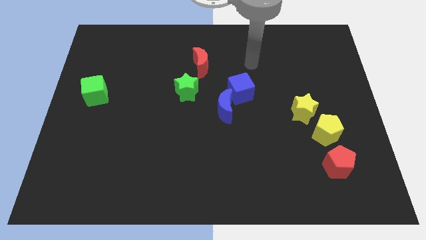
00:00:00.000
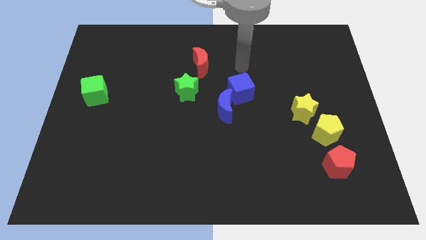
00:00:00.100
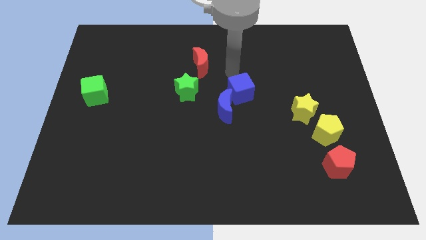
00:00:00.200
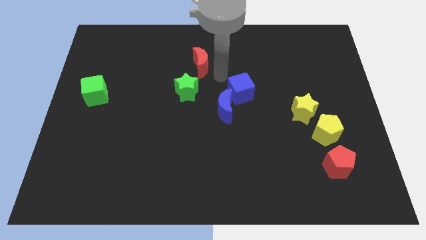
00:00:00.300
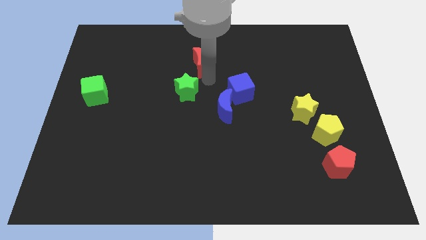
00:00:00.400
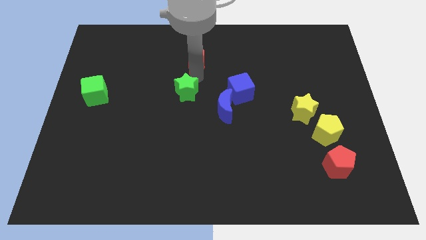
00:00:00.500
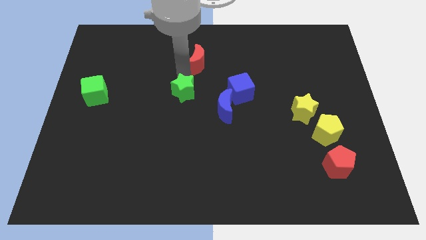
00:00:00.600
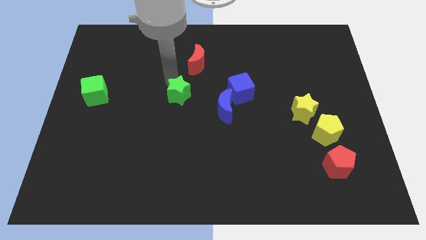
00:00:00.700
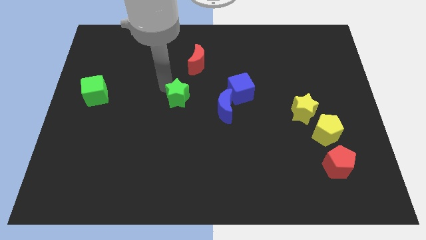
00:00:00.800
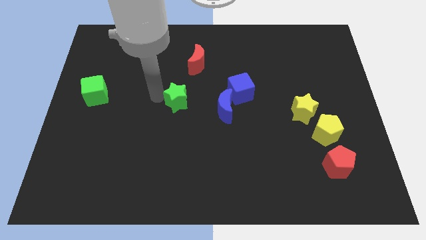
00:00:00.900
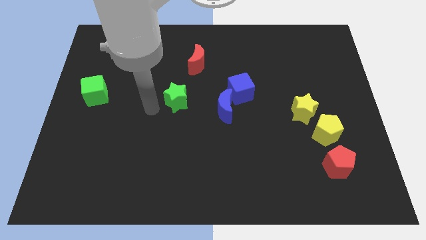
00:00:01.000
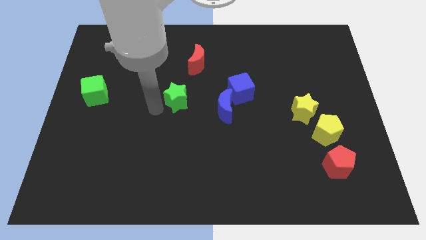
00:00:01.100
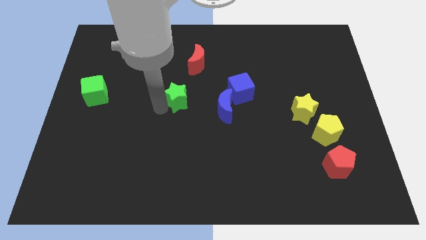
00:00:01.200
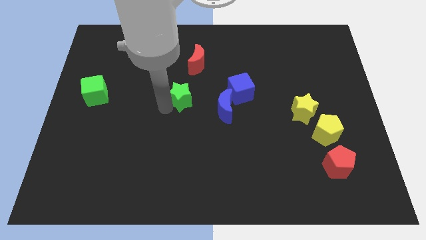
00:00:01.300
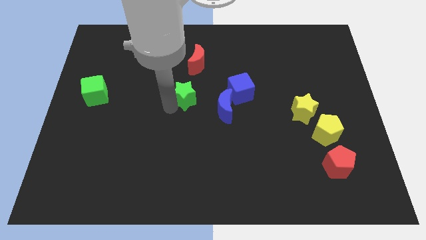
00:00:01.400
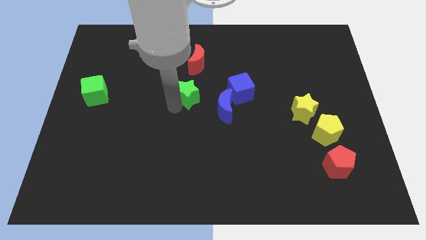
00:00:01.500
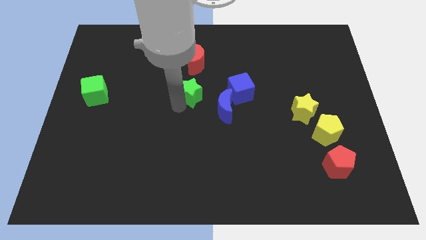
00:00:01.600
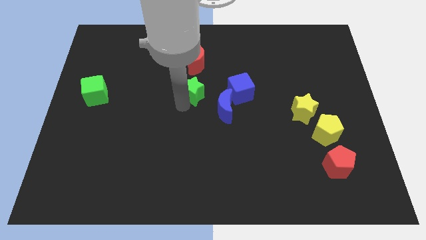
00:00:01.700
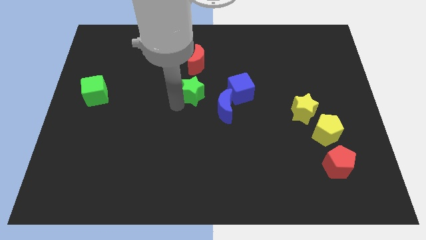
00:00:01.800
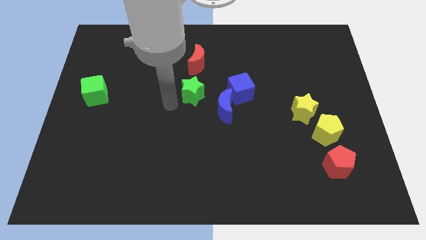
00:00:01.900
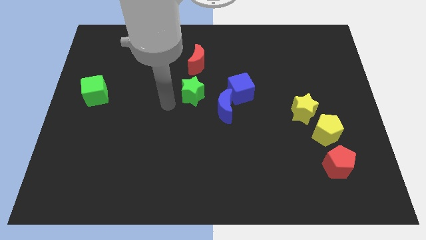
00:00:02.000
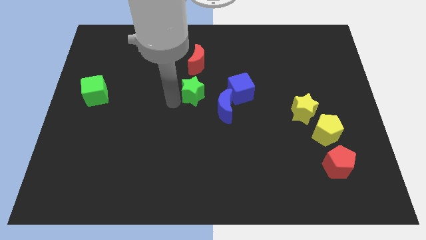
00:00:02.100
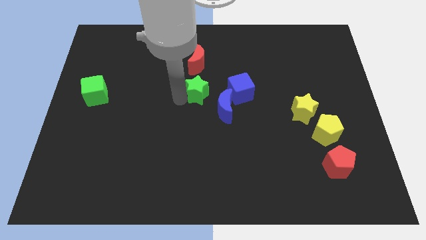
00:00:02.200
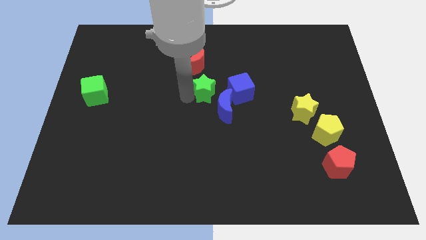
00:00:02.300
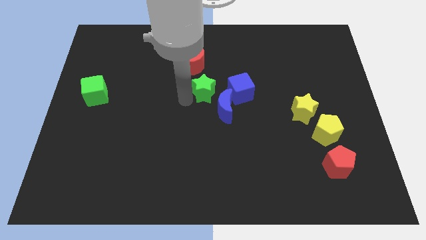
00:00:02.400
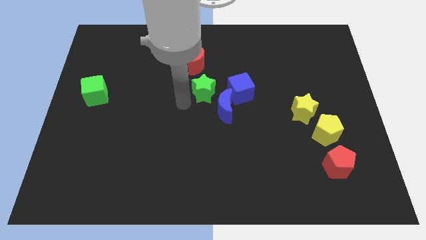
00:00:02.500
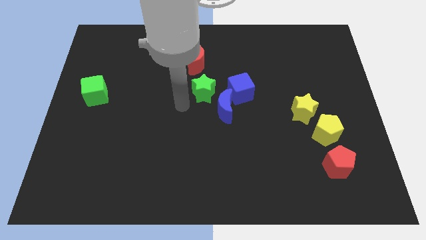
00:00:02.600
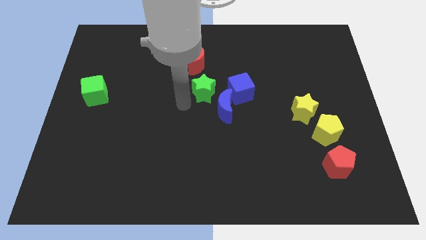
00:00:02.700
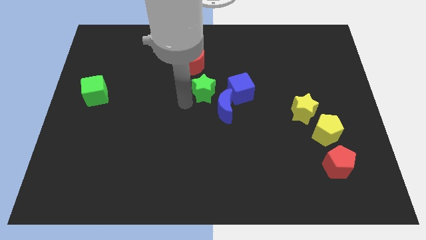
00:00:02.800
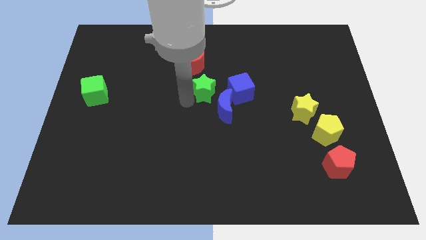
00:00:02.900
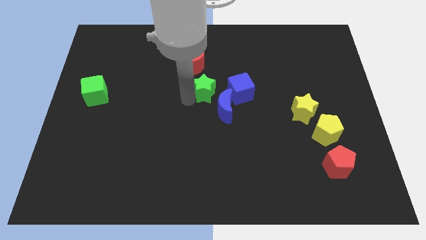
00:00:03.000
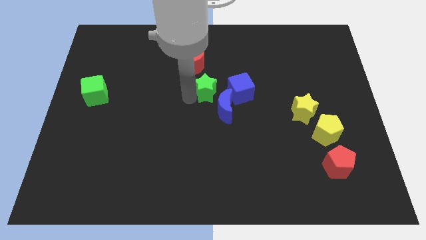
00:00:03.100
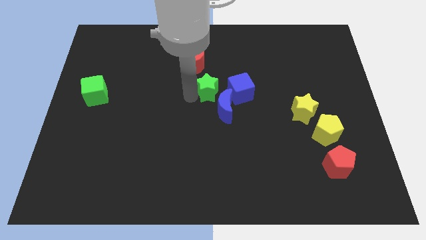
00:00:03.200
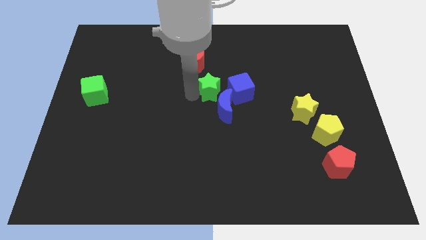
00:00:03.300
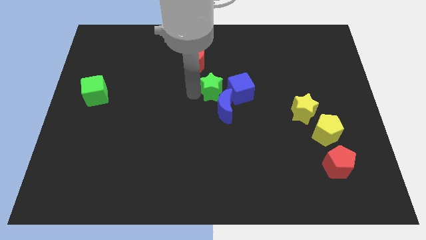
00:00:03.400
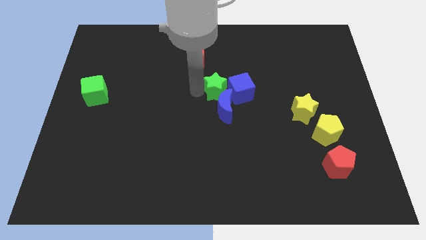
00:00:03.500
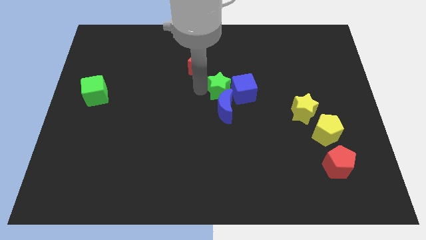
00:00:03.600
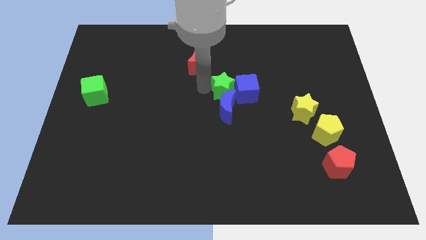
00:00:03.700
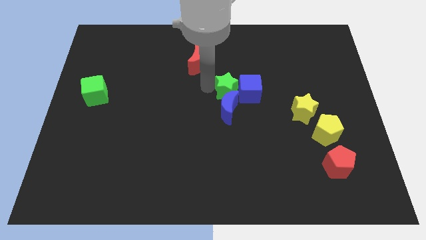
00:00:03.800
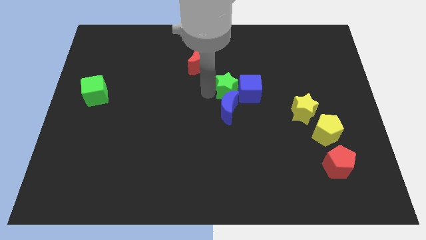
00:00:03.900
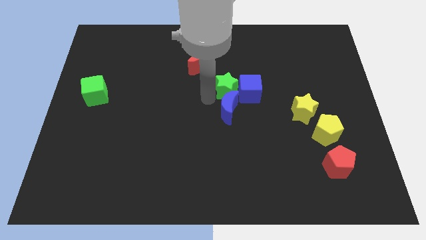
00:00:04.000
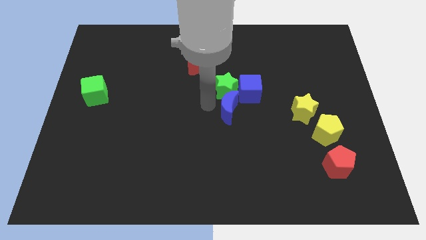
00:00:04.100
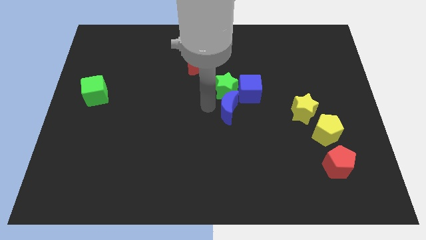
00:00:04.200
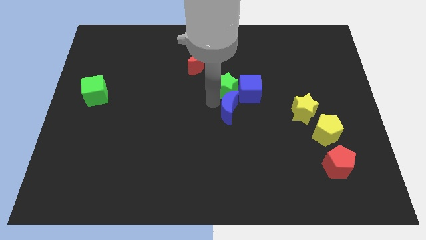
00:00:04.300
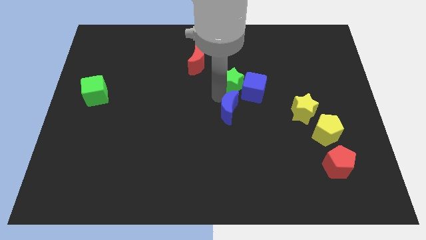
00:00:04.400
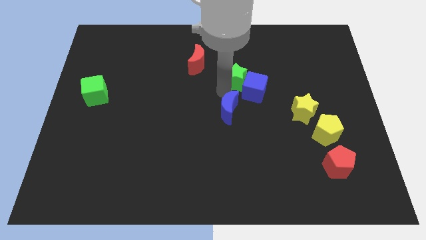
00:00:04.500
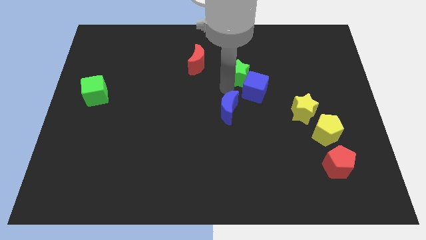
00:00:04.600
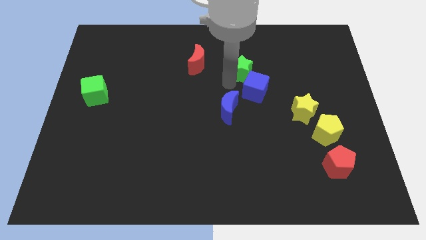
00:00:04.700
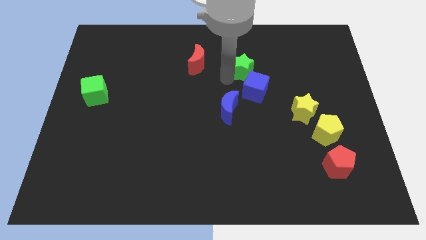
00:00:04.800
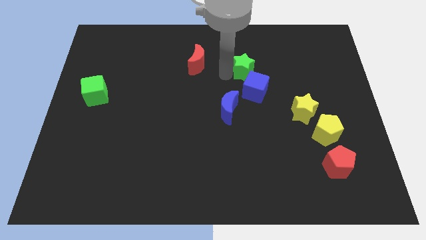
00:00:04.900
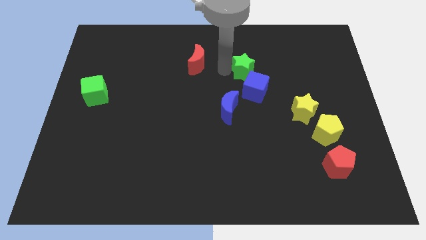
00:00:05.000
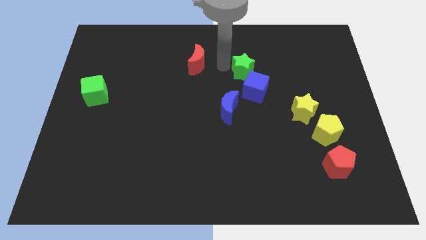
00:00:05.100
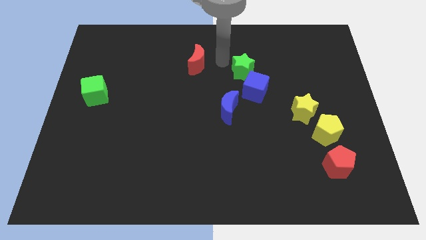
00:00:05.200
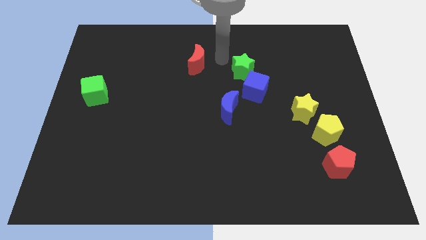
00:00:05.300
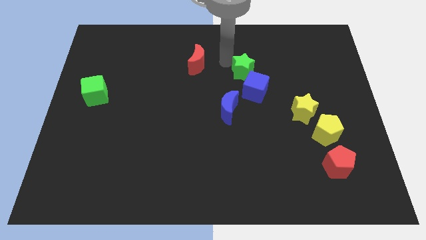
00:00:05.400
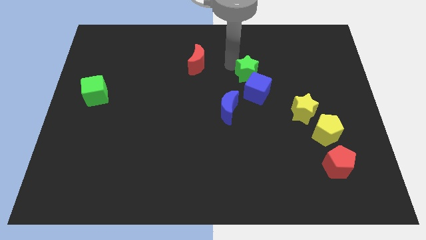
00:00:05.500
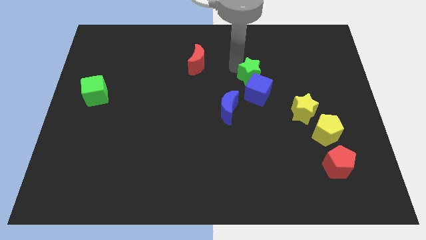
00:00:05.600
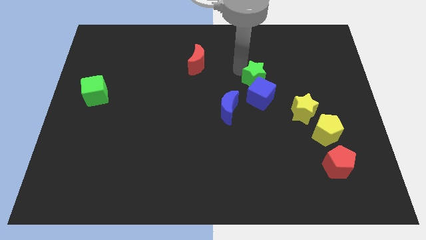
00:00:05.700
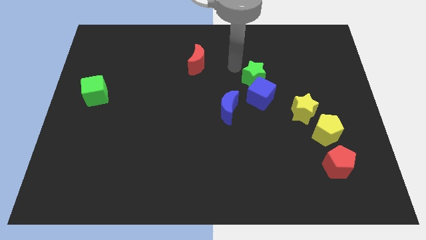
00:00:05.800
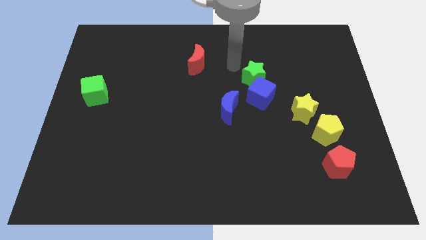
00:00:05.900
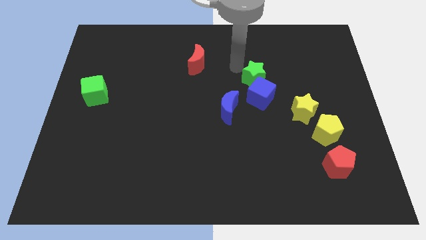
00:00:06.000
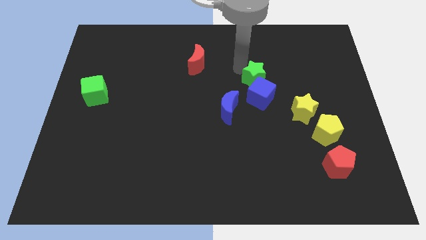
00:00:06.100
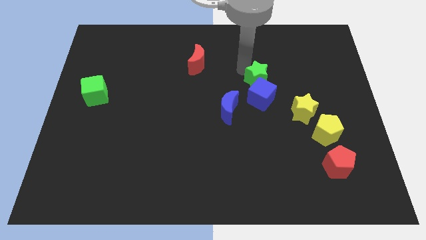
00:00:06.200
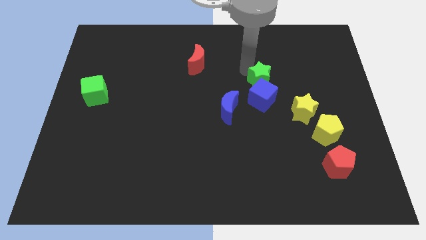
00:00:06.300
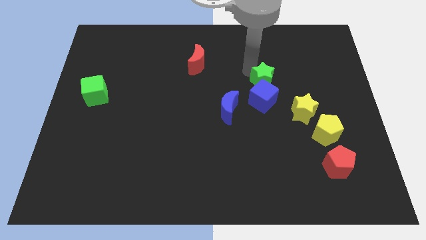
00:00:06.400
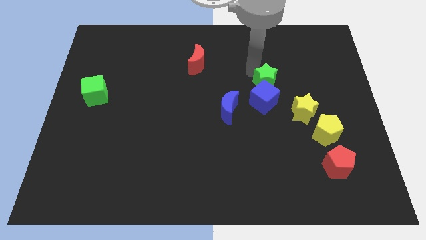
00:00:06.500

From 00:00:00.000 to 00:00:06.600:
move the green star diagonally up and to the left of the yellow star

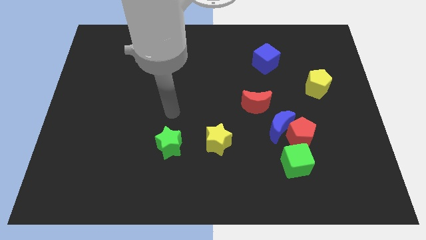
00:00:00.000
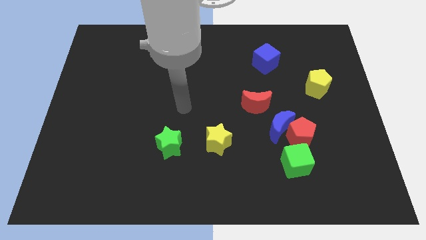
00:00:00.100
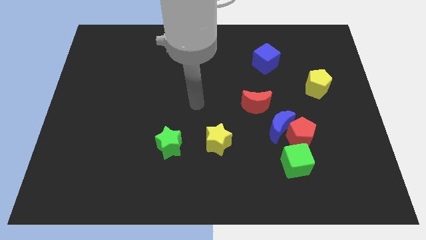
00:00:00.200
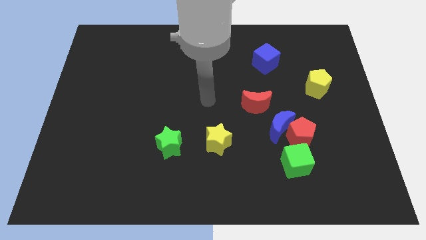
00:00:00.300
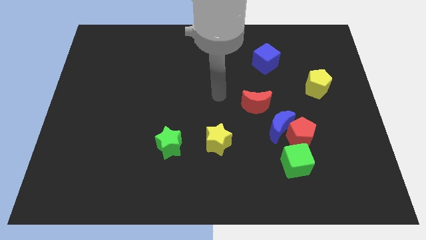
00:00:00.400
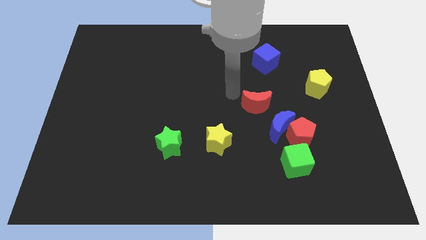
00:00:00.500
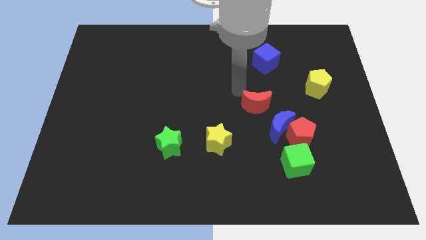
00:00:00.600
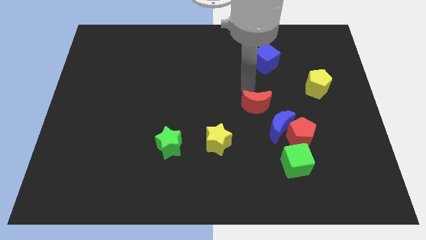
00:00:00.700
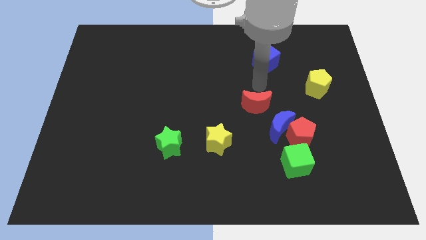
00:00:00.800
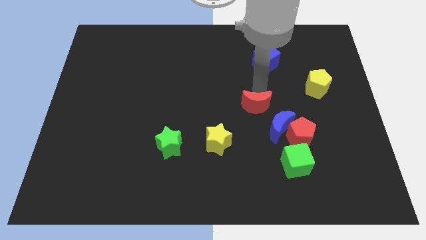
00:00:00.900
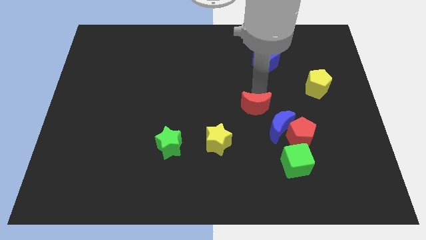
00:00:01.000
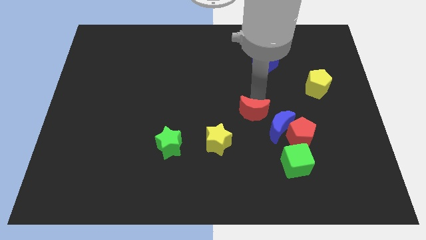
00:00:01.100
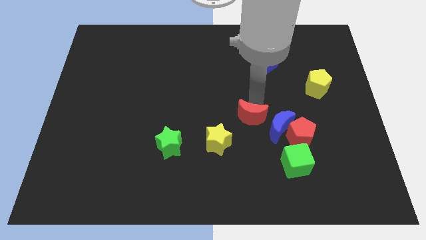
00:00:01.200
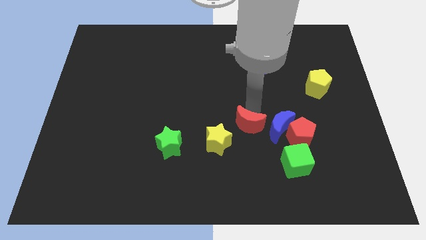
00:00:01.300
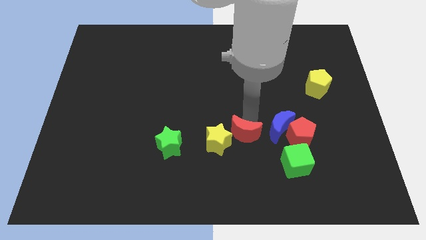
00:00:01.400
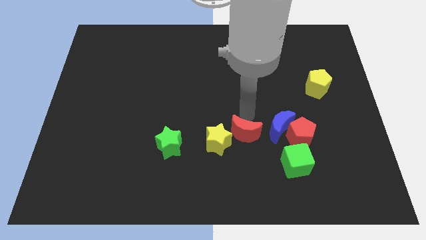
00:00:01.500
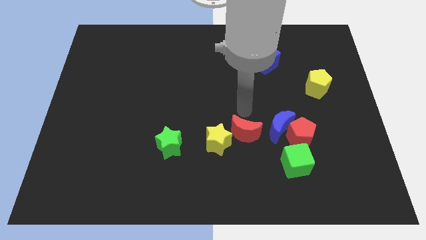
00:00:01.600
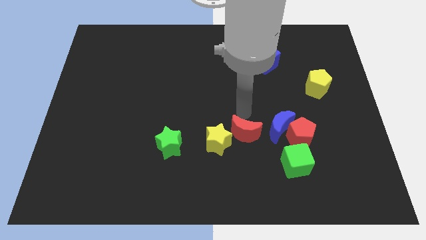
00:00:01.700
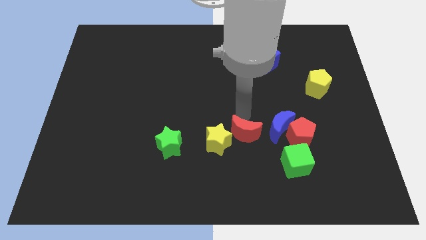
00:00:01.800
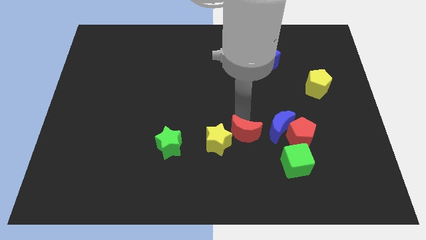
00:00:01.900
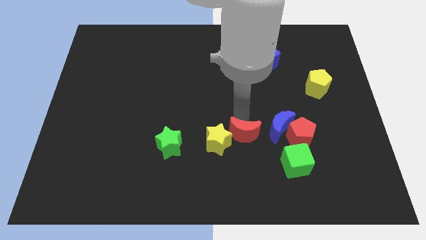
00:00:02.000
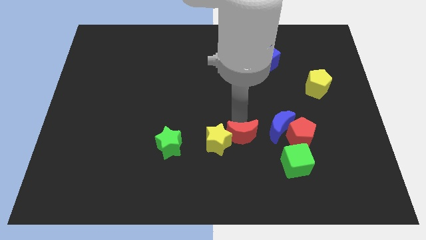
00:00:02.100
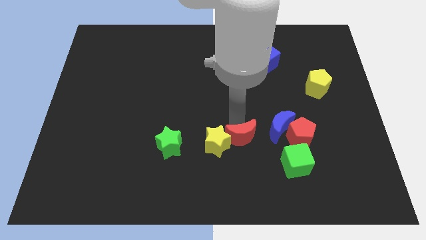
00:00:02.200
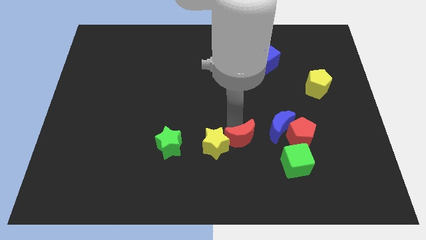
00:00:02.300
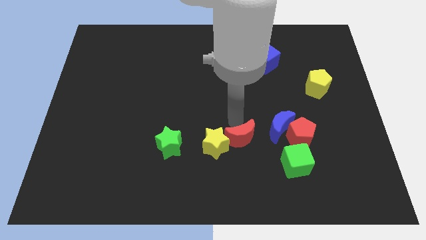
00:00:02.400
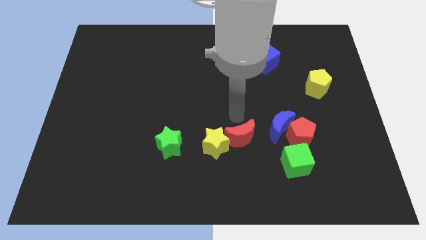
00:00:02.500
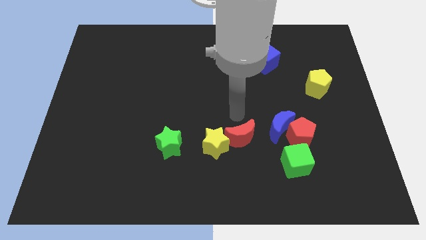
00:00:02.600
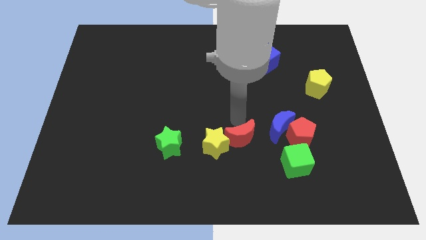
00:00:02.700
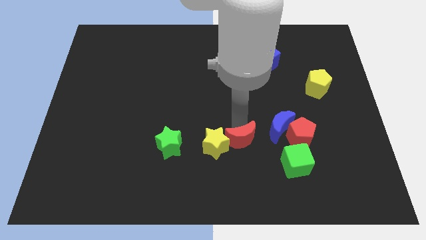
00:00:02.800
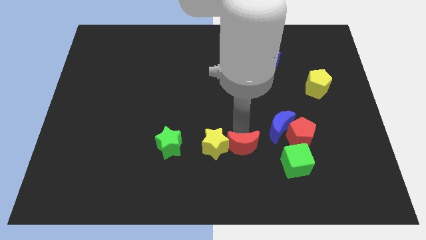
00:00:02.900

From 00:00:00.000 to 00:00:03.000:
move the red moon left of the green cube
